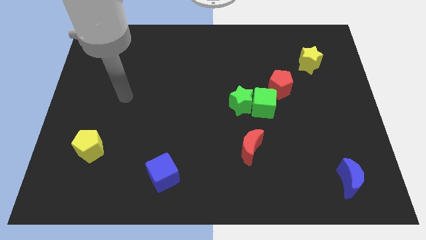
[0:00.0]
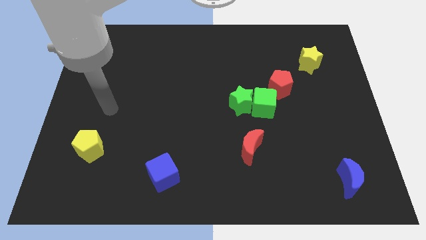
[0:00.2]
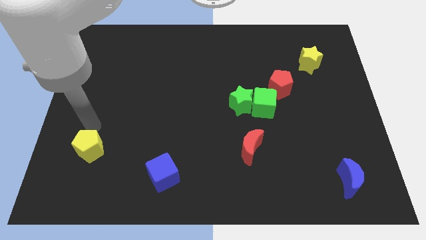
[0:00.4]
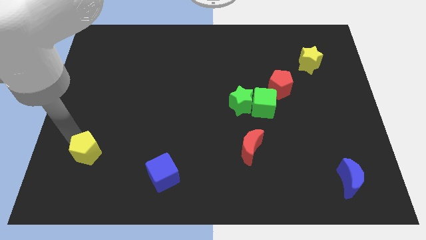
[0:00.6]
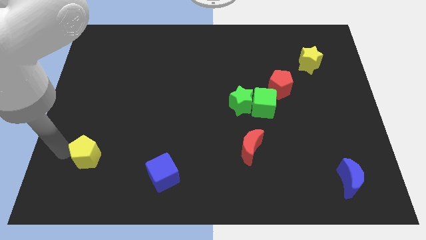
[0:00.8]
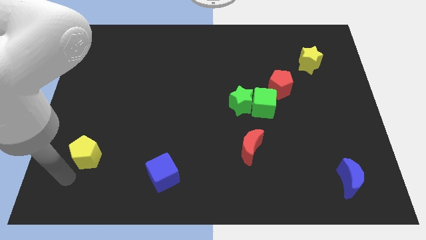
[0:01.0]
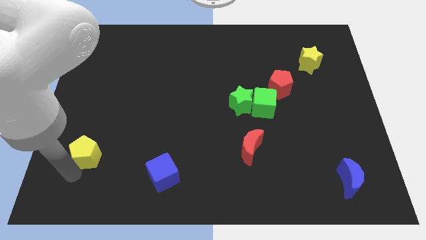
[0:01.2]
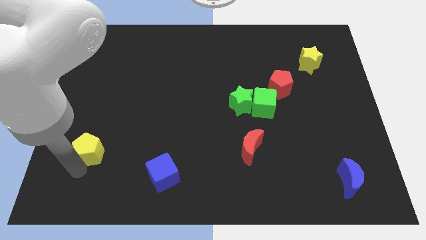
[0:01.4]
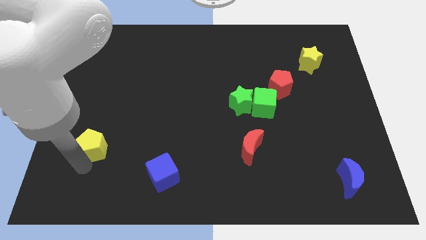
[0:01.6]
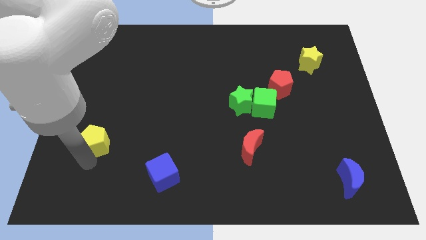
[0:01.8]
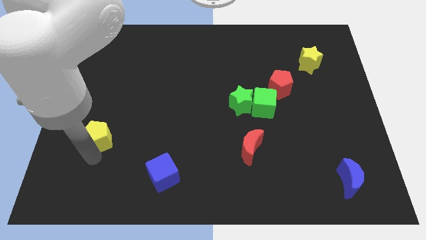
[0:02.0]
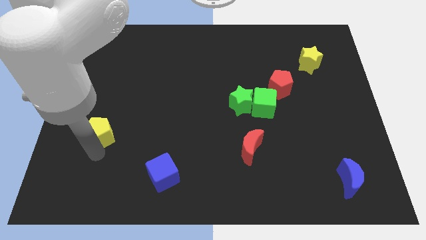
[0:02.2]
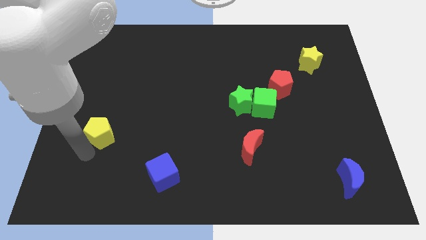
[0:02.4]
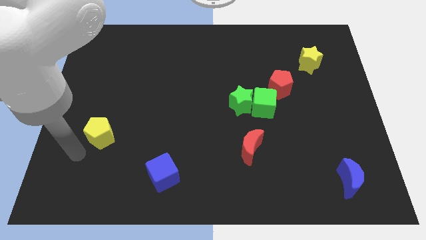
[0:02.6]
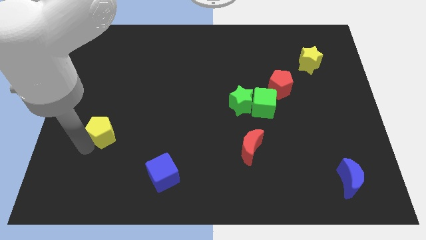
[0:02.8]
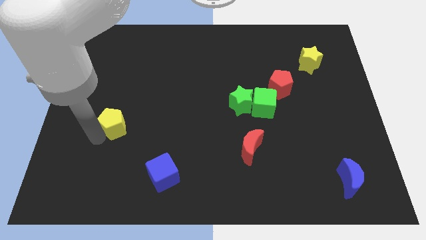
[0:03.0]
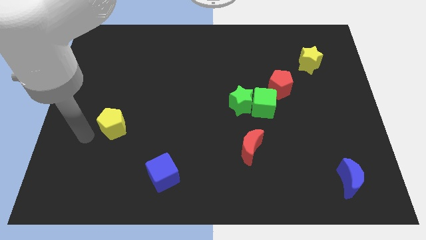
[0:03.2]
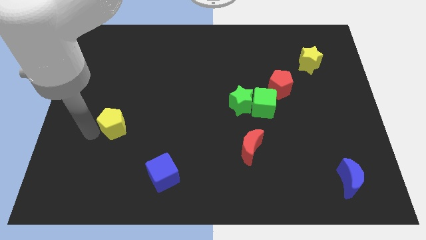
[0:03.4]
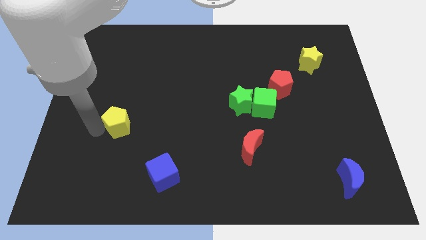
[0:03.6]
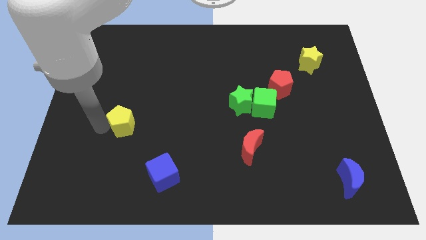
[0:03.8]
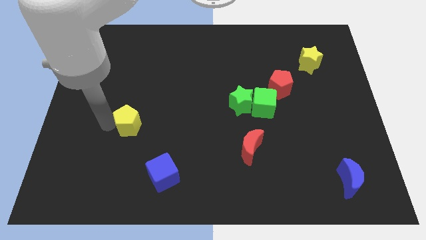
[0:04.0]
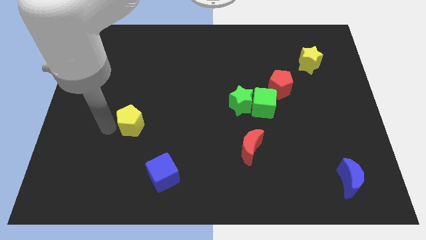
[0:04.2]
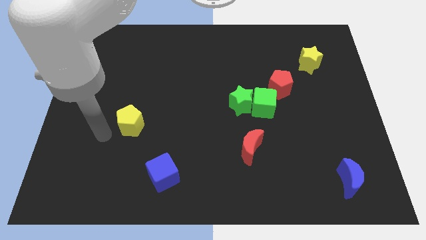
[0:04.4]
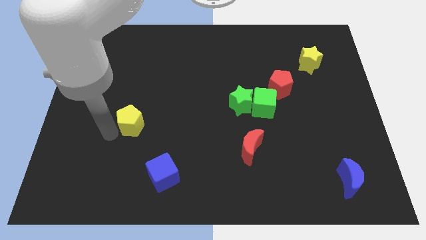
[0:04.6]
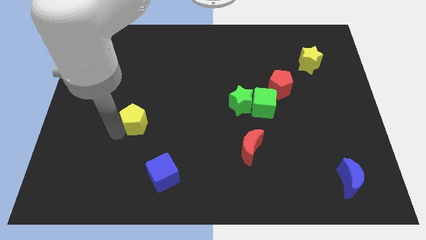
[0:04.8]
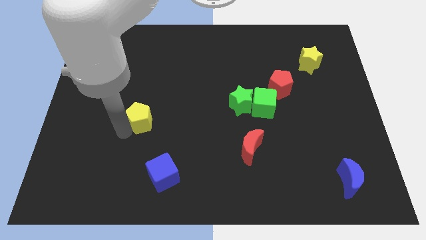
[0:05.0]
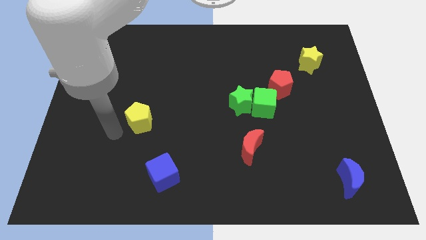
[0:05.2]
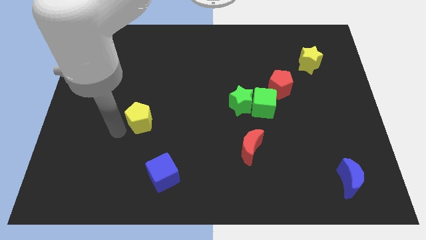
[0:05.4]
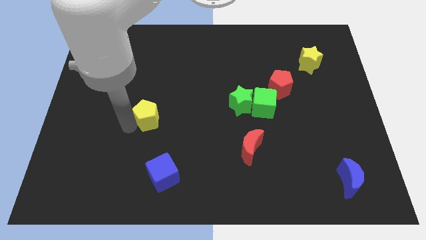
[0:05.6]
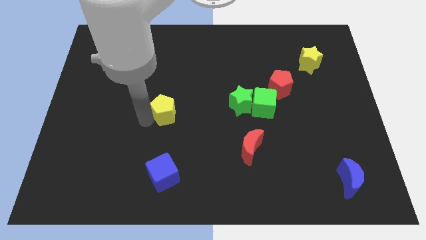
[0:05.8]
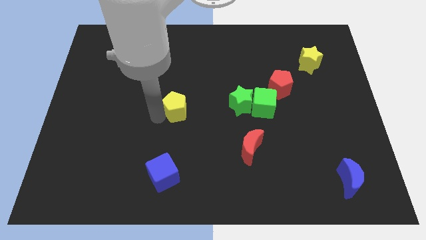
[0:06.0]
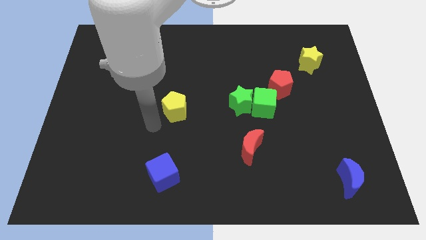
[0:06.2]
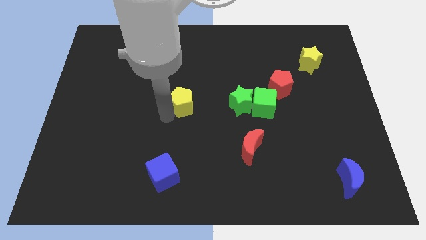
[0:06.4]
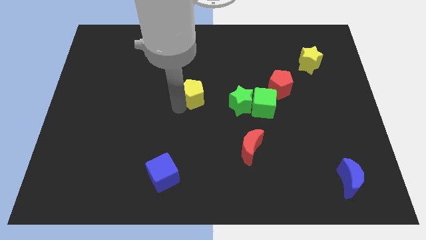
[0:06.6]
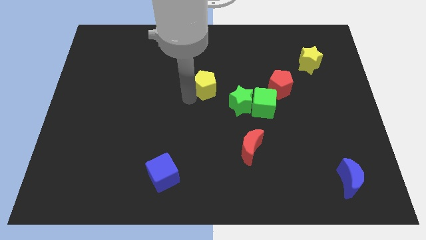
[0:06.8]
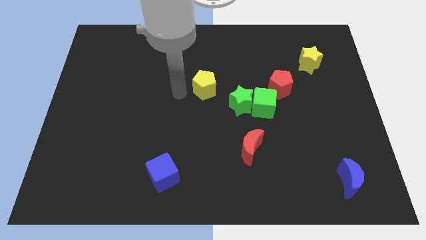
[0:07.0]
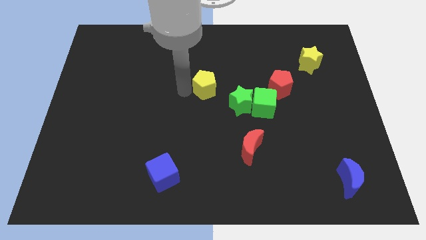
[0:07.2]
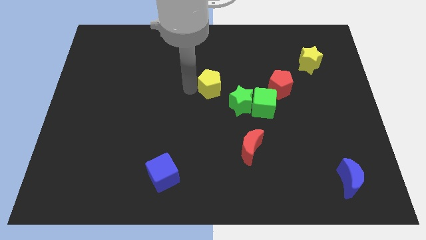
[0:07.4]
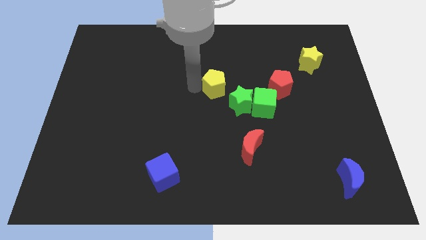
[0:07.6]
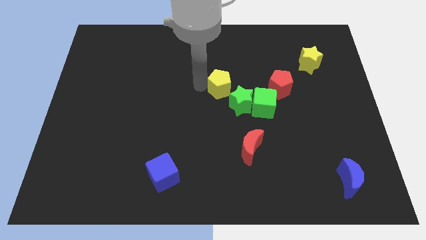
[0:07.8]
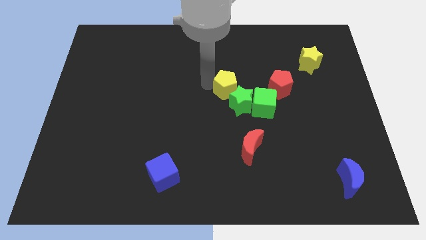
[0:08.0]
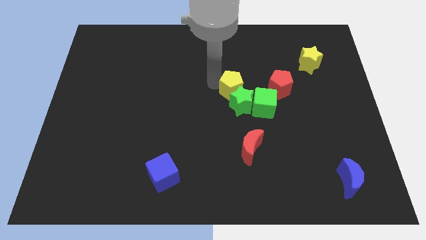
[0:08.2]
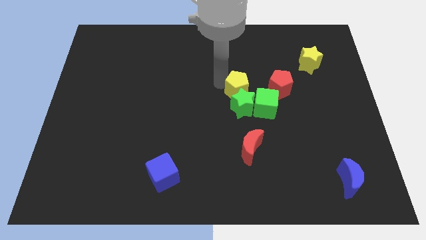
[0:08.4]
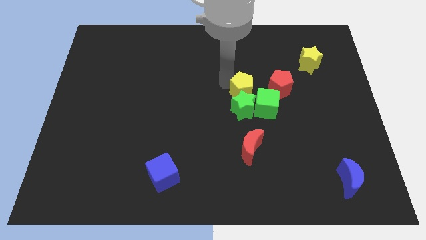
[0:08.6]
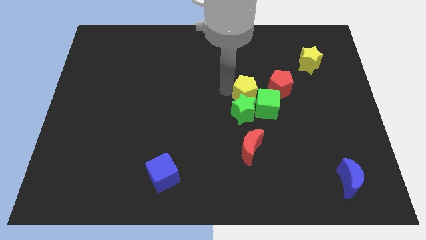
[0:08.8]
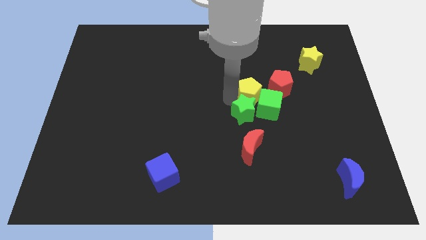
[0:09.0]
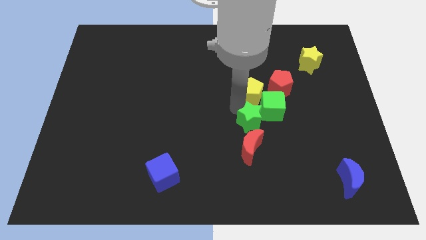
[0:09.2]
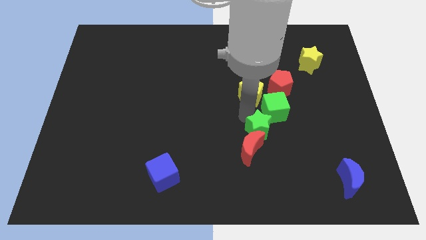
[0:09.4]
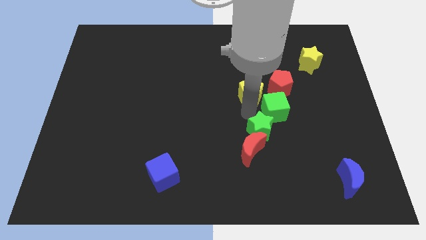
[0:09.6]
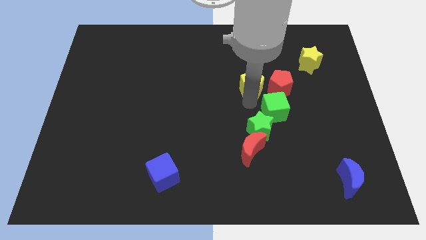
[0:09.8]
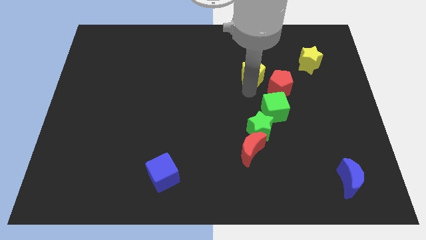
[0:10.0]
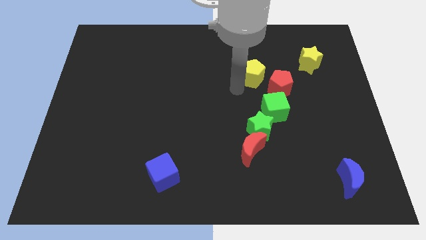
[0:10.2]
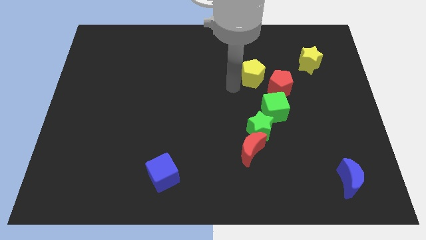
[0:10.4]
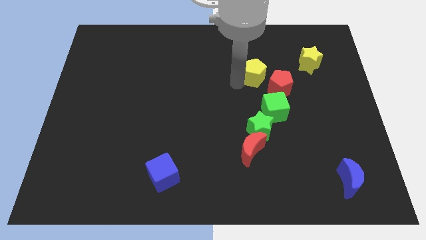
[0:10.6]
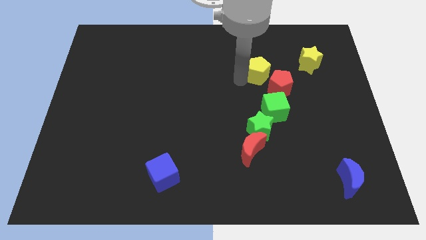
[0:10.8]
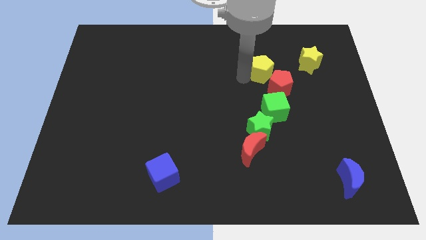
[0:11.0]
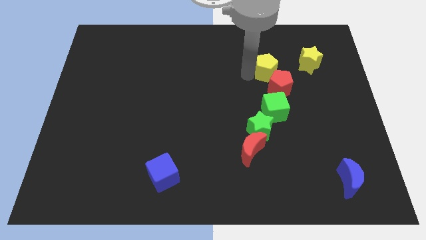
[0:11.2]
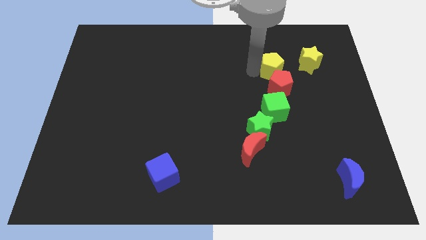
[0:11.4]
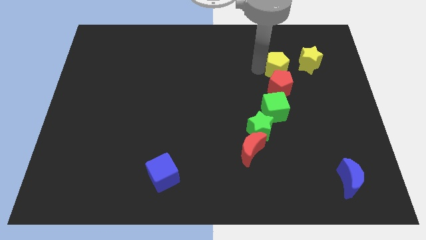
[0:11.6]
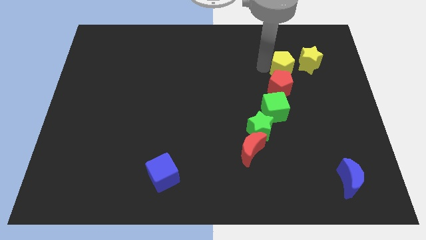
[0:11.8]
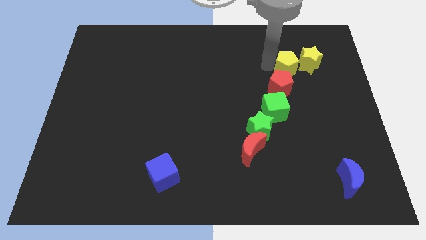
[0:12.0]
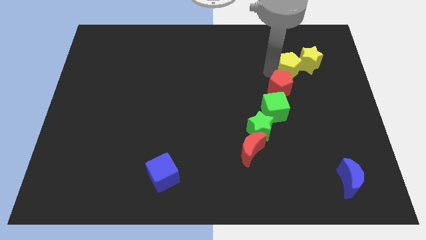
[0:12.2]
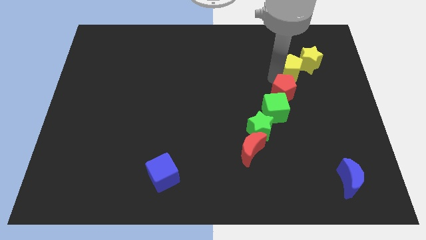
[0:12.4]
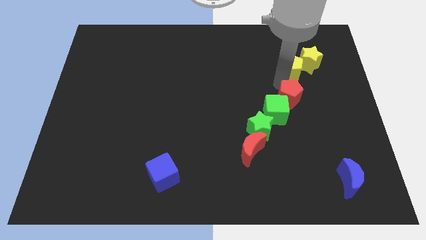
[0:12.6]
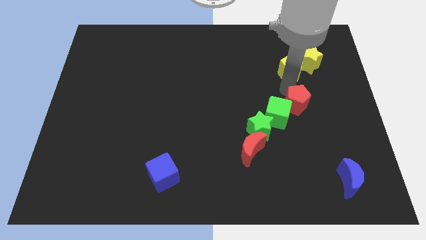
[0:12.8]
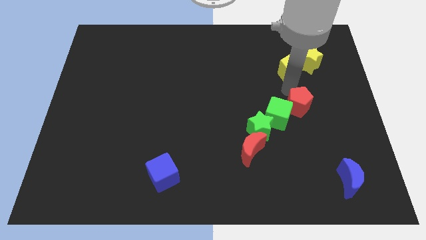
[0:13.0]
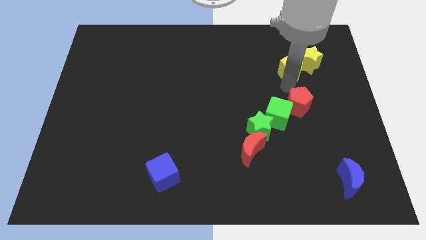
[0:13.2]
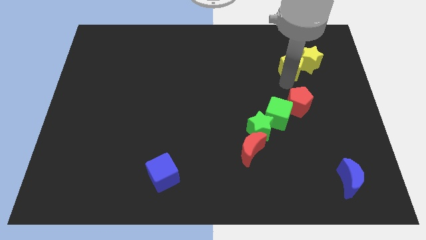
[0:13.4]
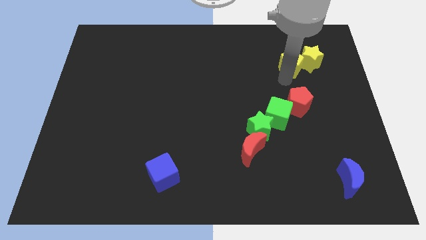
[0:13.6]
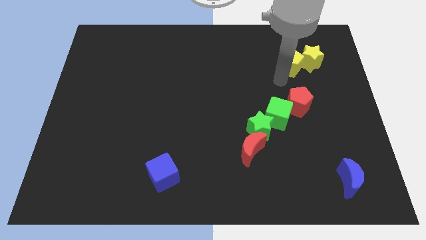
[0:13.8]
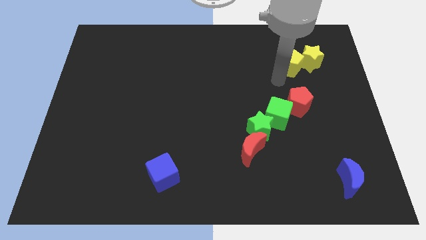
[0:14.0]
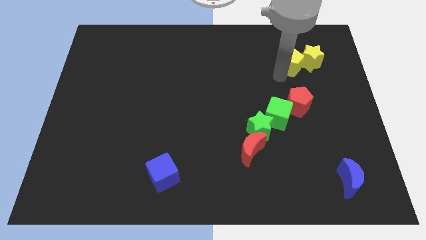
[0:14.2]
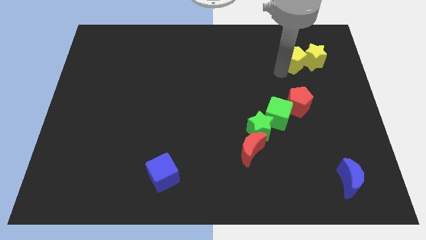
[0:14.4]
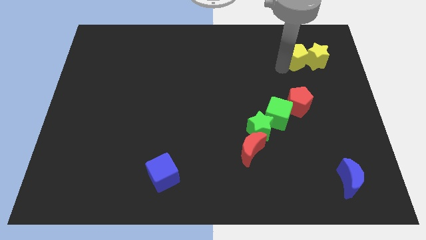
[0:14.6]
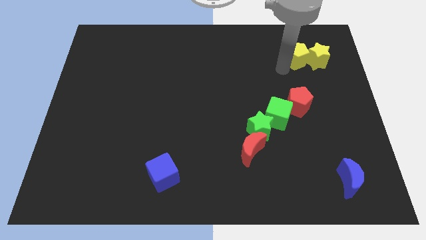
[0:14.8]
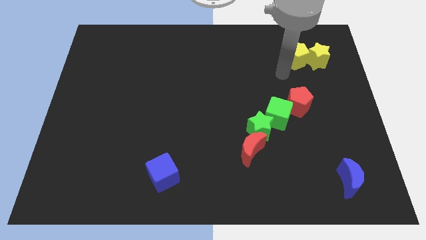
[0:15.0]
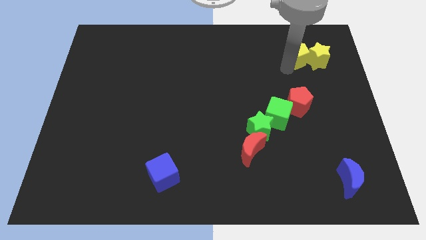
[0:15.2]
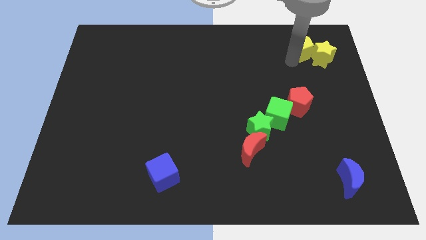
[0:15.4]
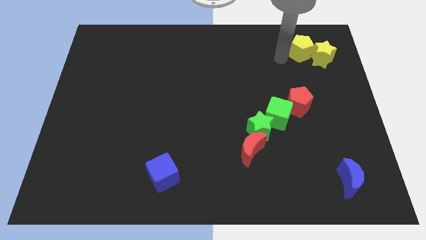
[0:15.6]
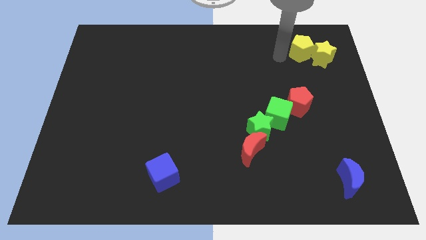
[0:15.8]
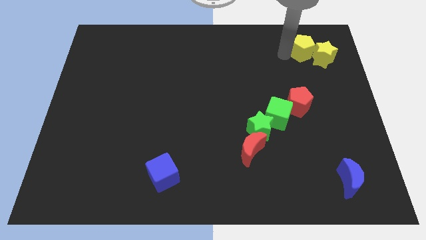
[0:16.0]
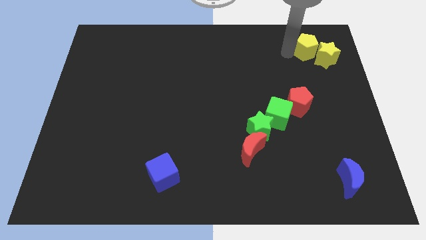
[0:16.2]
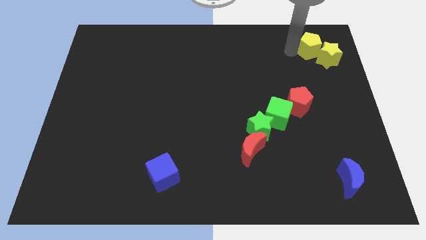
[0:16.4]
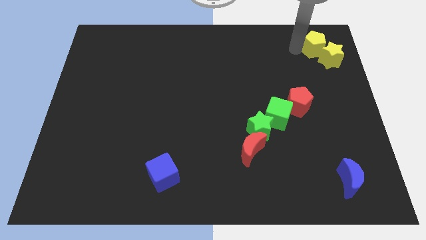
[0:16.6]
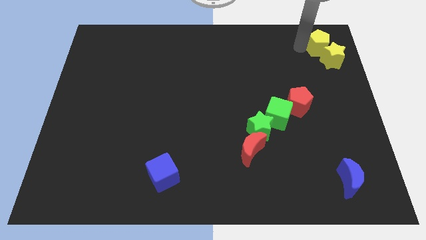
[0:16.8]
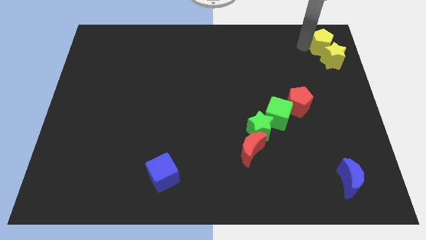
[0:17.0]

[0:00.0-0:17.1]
move the yellow pentagon to the upper right corner
